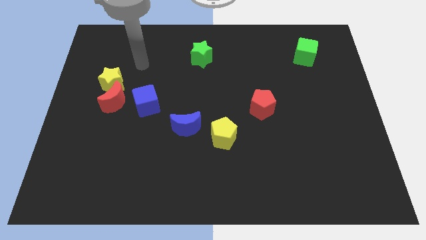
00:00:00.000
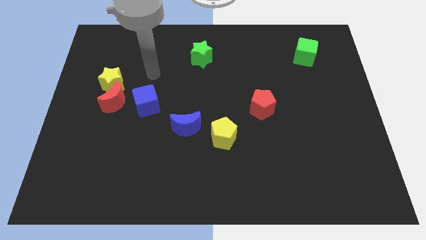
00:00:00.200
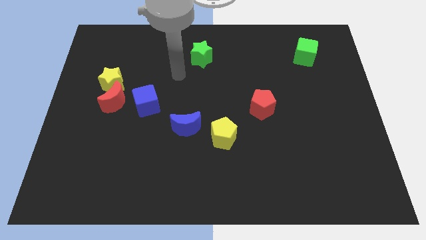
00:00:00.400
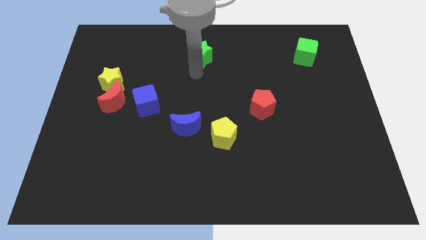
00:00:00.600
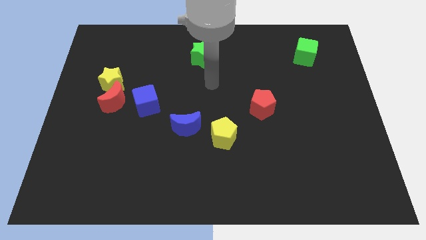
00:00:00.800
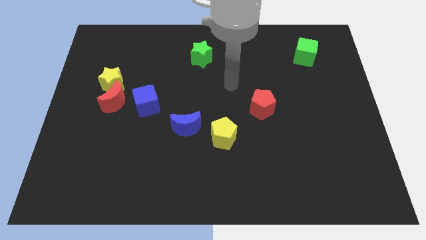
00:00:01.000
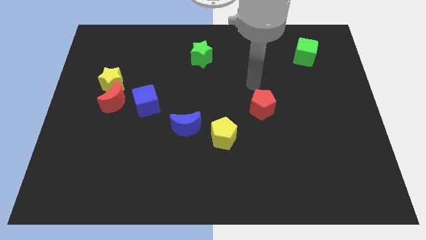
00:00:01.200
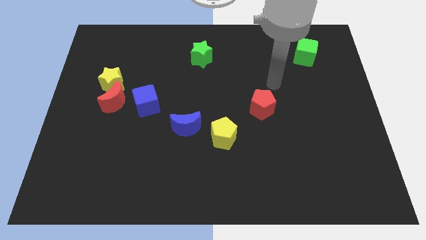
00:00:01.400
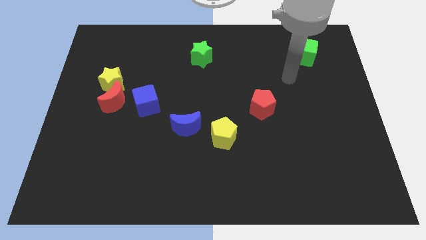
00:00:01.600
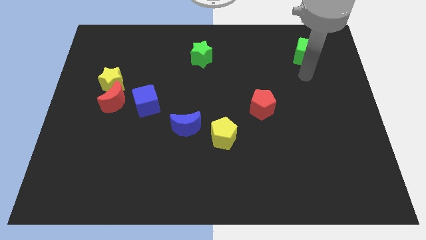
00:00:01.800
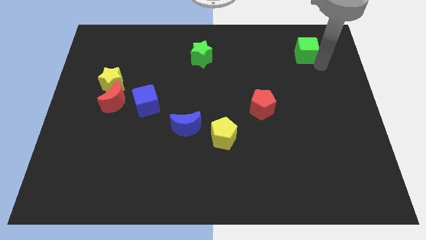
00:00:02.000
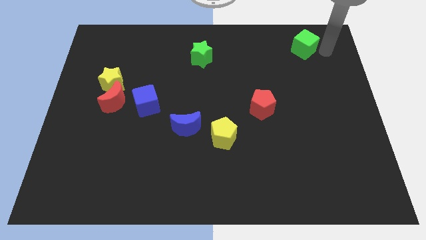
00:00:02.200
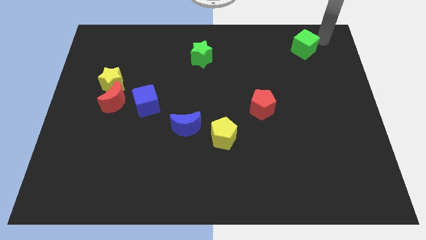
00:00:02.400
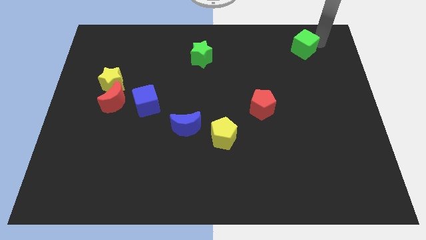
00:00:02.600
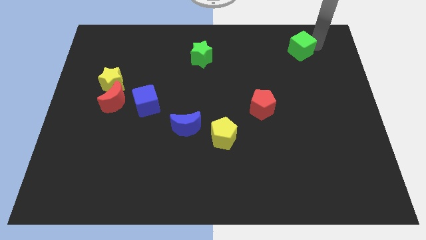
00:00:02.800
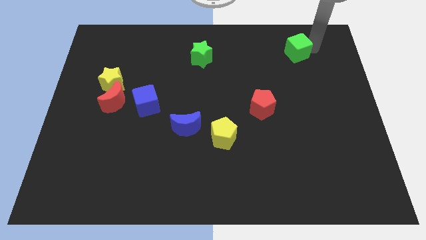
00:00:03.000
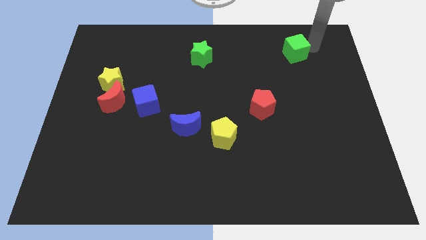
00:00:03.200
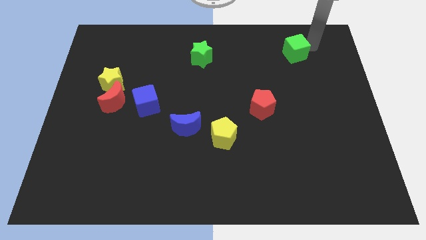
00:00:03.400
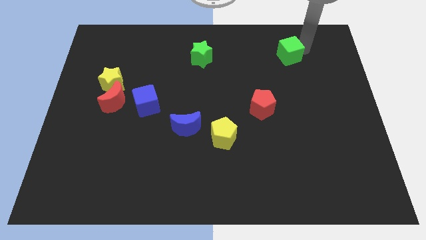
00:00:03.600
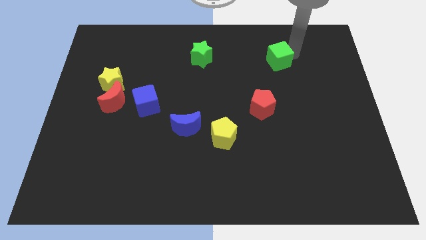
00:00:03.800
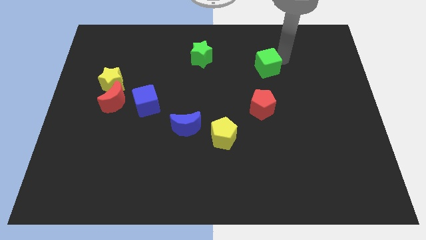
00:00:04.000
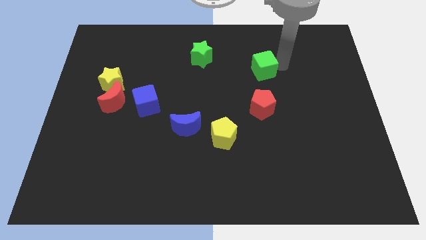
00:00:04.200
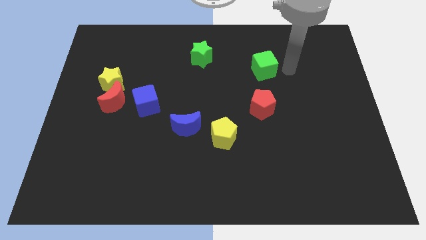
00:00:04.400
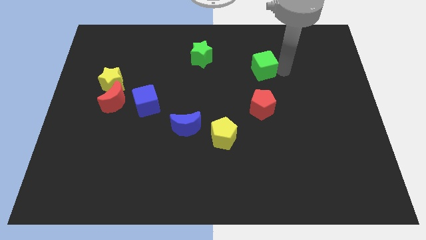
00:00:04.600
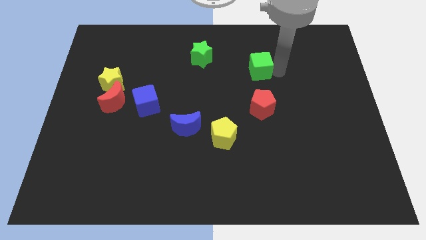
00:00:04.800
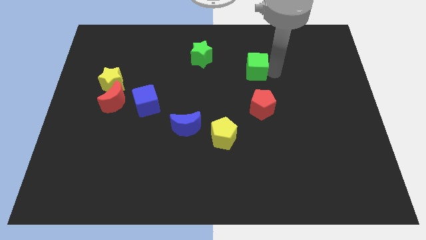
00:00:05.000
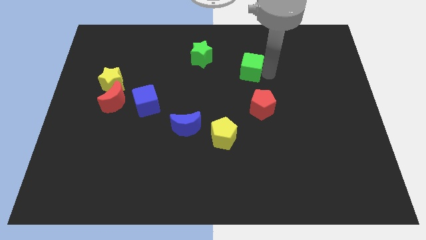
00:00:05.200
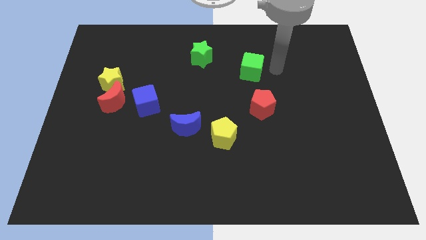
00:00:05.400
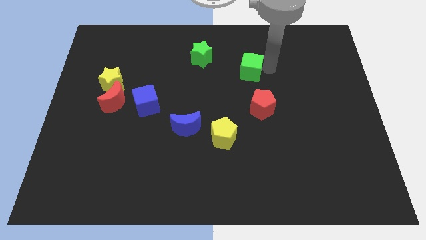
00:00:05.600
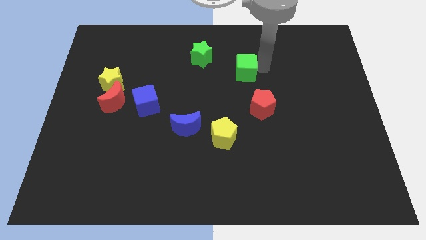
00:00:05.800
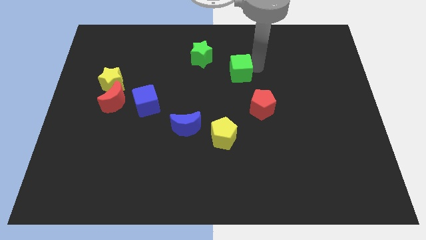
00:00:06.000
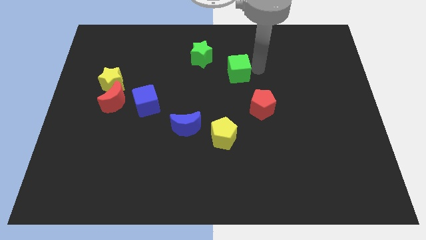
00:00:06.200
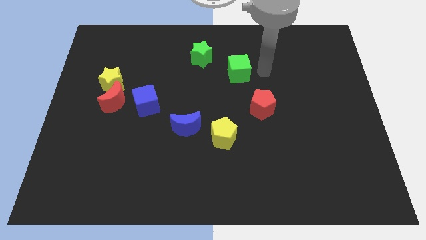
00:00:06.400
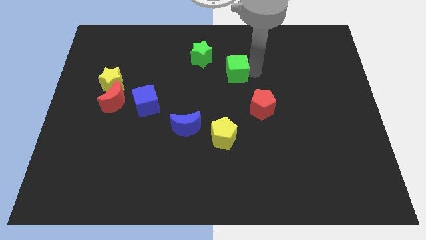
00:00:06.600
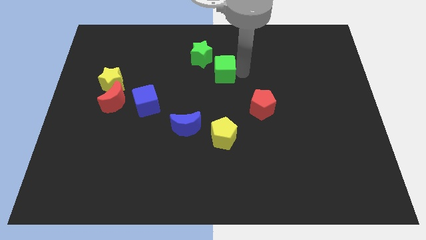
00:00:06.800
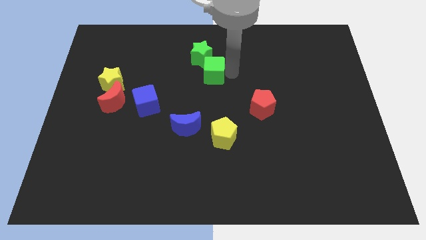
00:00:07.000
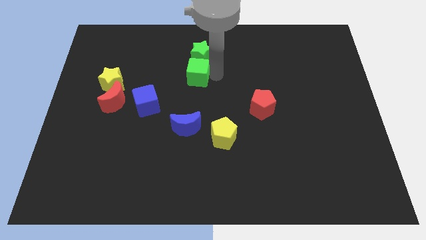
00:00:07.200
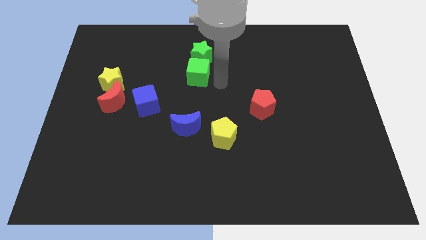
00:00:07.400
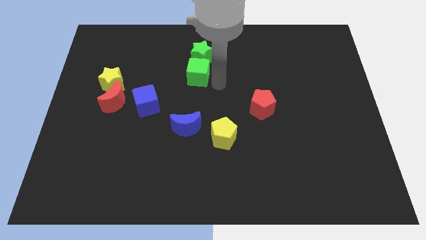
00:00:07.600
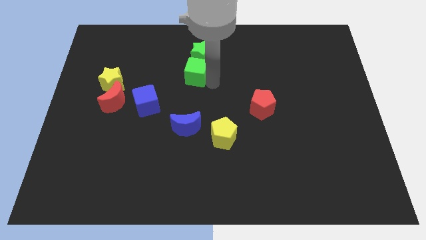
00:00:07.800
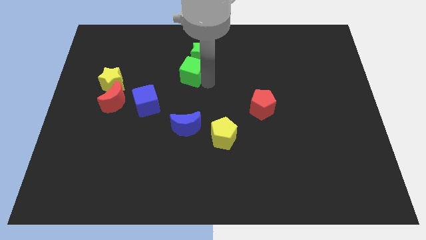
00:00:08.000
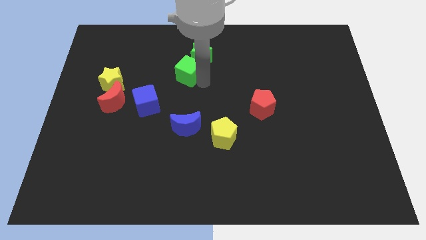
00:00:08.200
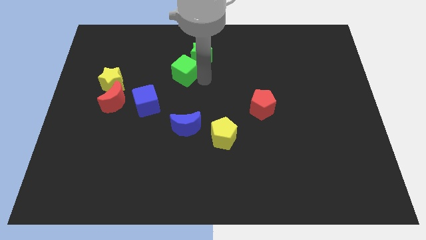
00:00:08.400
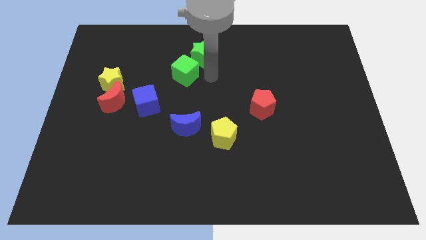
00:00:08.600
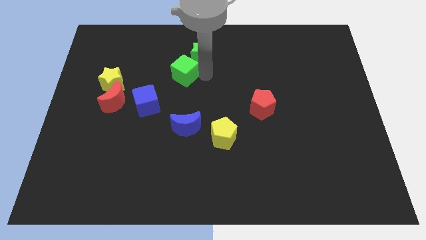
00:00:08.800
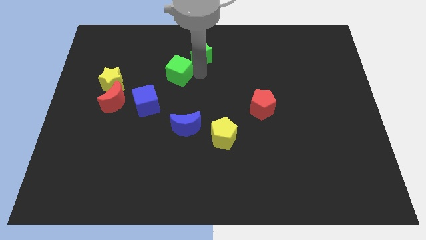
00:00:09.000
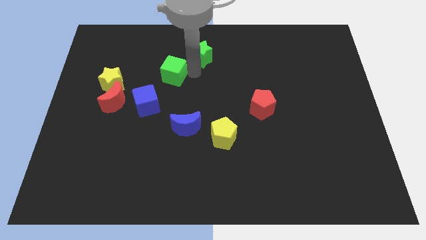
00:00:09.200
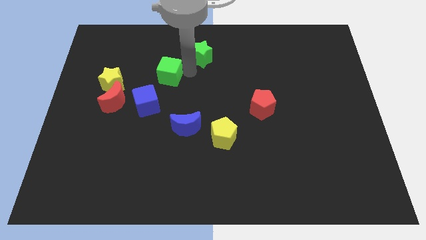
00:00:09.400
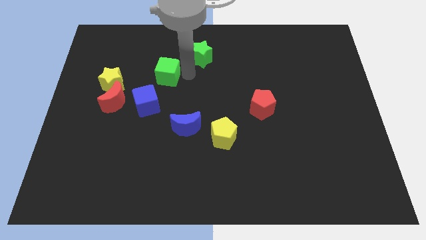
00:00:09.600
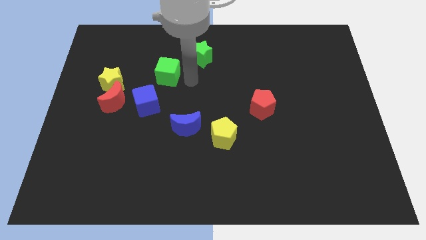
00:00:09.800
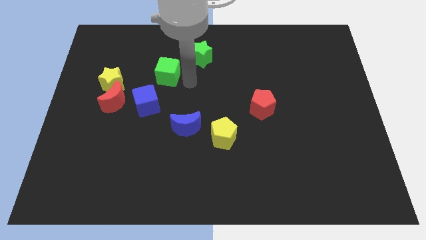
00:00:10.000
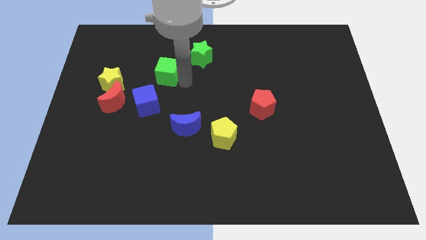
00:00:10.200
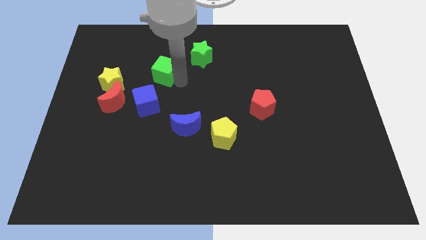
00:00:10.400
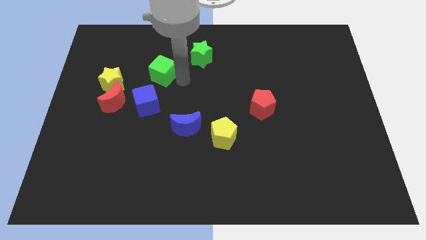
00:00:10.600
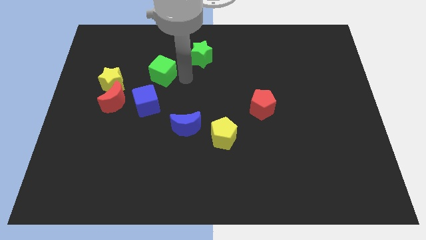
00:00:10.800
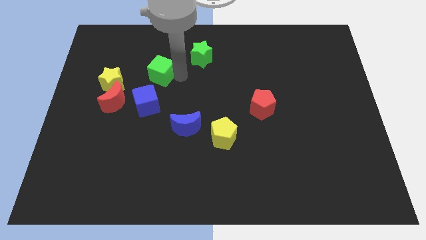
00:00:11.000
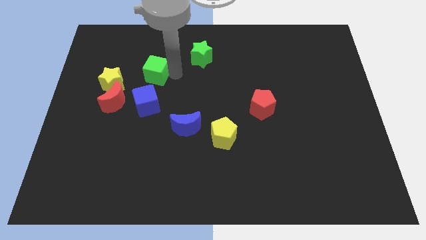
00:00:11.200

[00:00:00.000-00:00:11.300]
slide the green cube to the top right of the yellow star

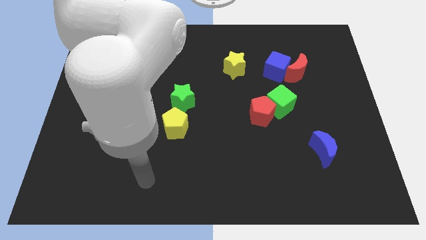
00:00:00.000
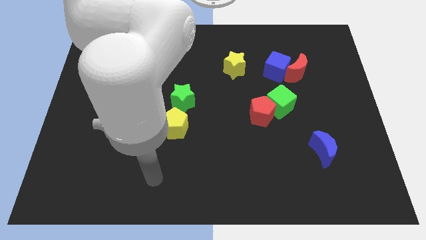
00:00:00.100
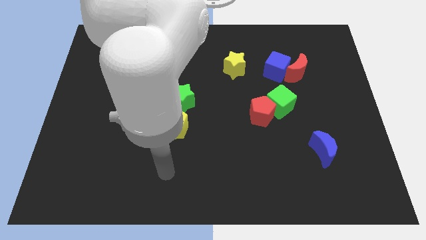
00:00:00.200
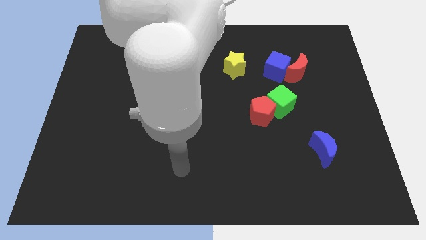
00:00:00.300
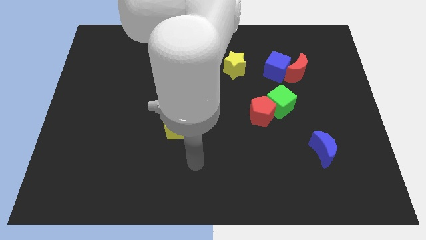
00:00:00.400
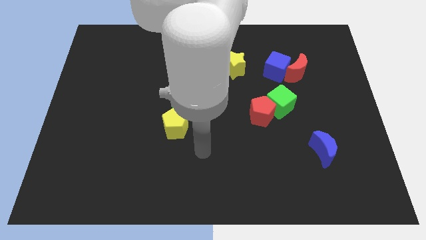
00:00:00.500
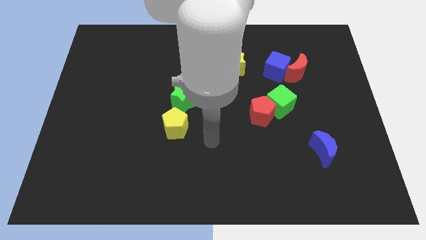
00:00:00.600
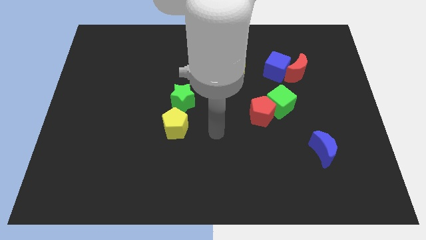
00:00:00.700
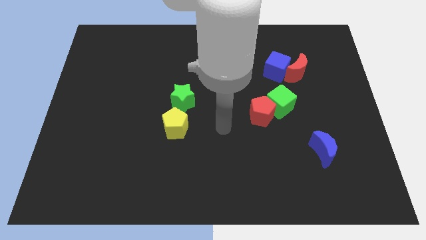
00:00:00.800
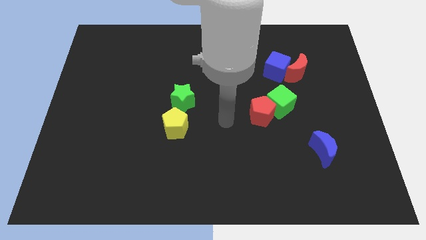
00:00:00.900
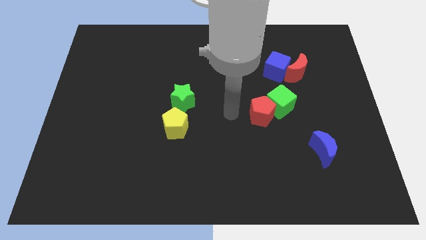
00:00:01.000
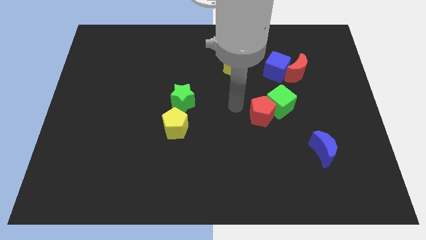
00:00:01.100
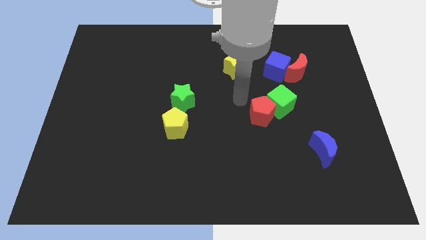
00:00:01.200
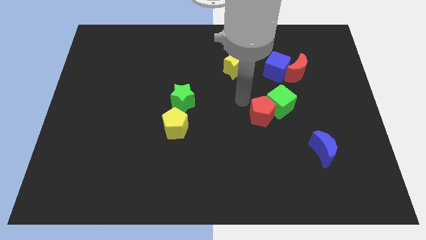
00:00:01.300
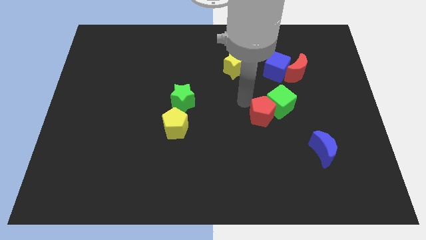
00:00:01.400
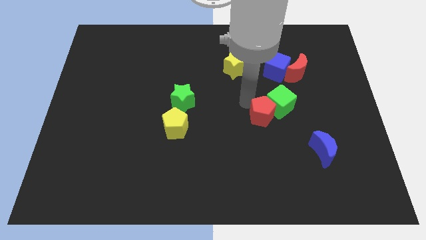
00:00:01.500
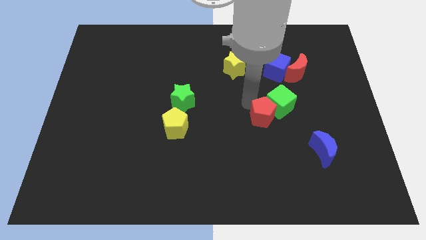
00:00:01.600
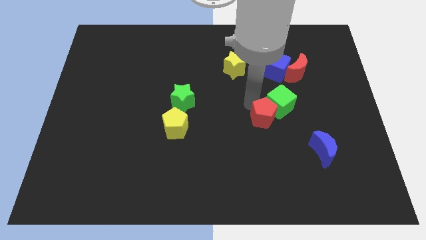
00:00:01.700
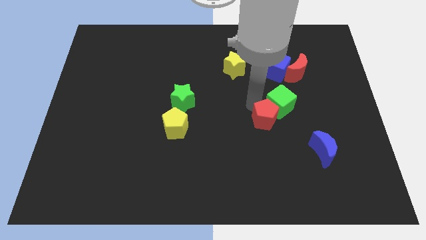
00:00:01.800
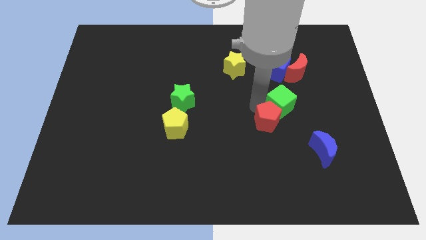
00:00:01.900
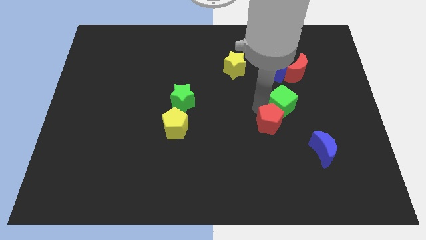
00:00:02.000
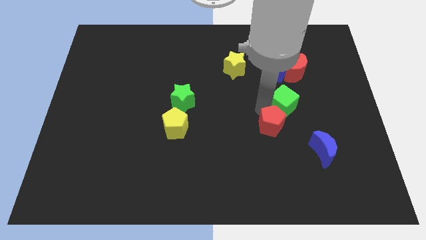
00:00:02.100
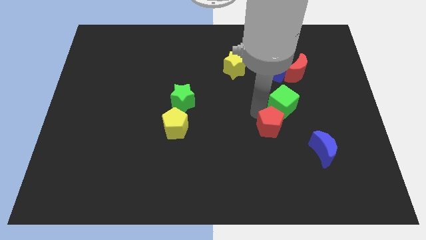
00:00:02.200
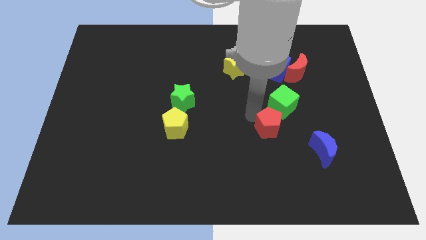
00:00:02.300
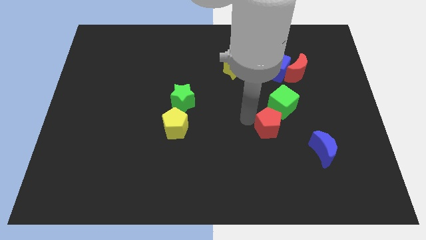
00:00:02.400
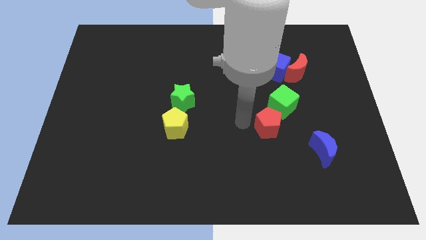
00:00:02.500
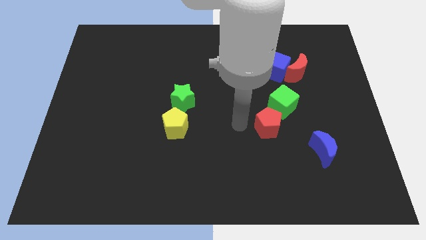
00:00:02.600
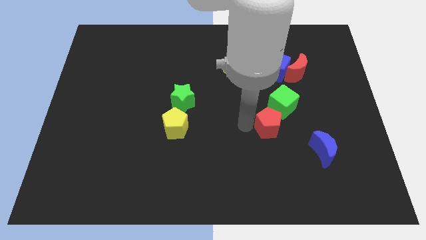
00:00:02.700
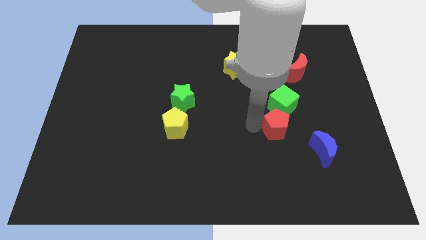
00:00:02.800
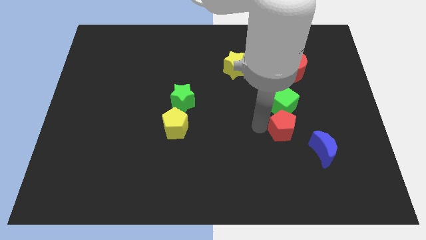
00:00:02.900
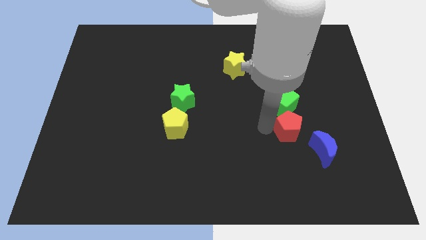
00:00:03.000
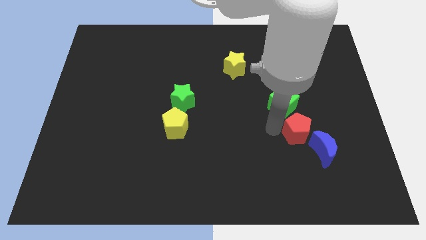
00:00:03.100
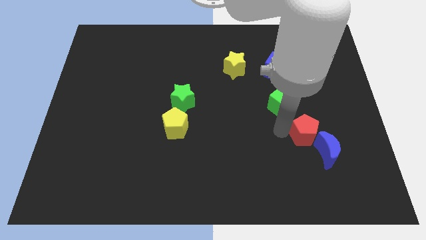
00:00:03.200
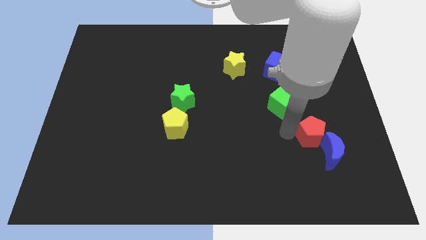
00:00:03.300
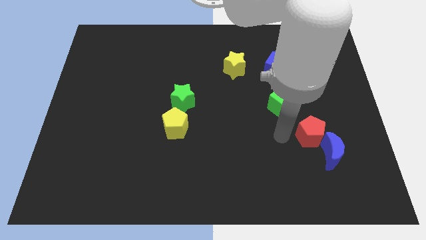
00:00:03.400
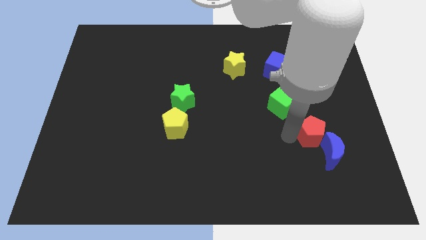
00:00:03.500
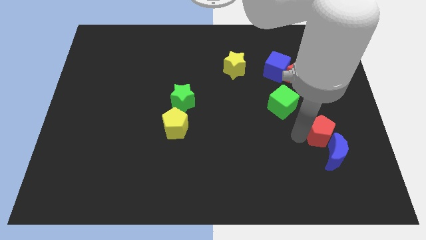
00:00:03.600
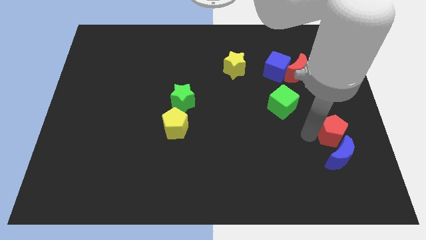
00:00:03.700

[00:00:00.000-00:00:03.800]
move the red pentagon to the top right side of the blue moon
